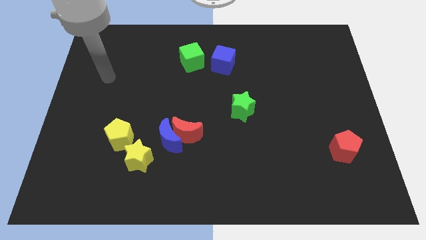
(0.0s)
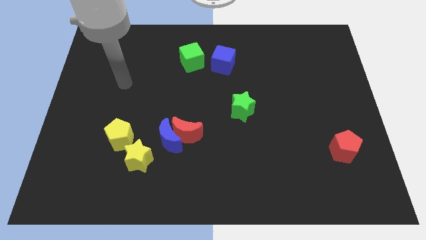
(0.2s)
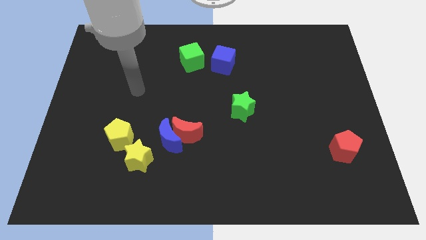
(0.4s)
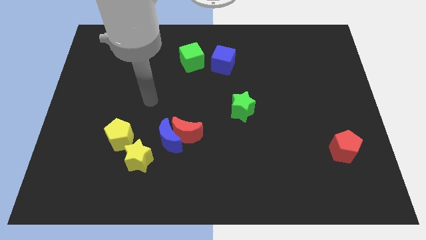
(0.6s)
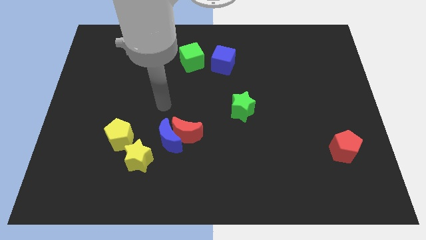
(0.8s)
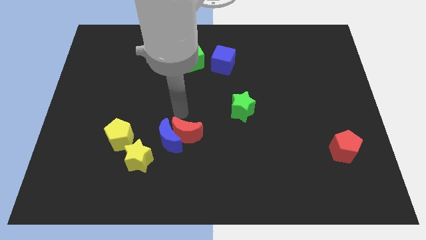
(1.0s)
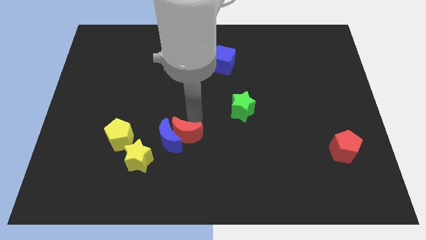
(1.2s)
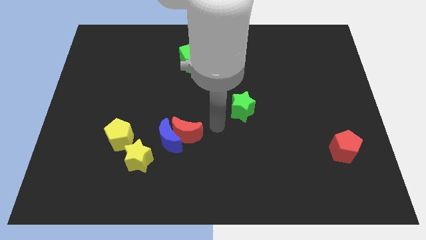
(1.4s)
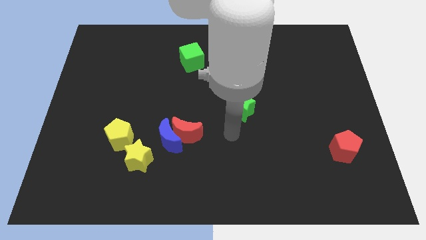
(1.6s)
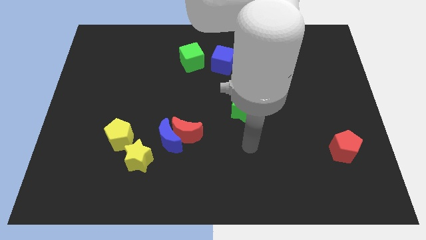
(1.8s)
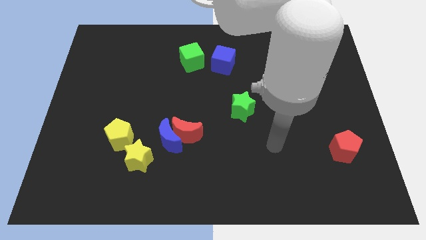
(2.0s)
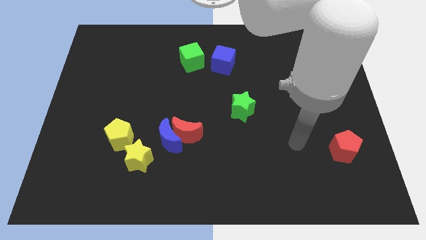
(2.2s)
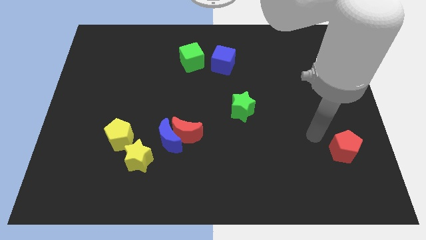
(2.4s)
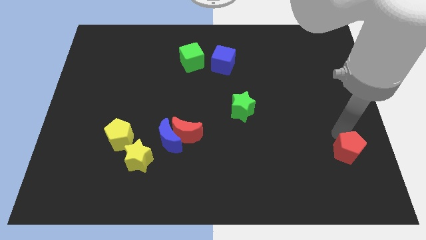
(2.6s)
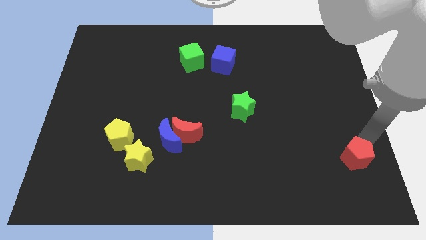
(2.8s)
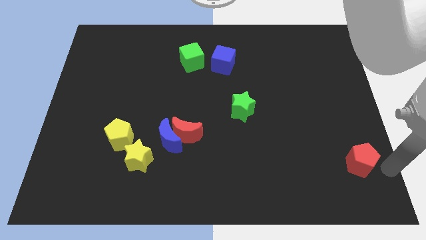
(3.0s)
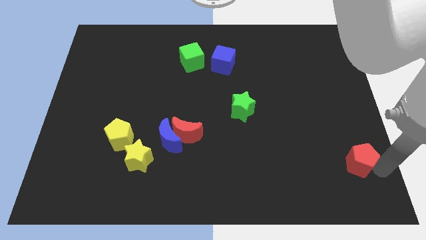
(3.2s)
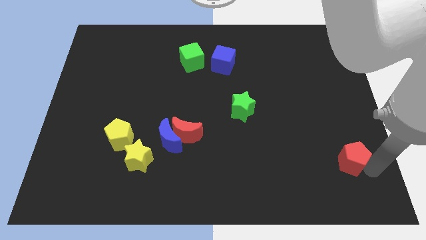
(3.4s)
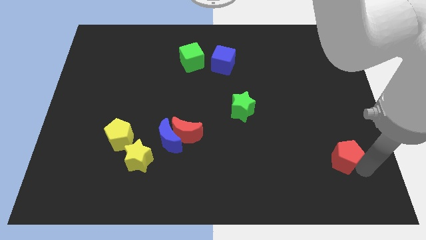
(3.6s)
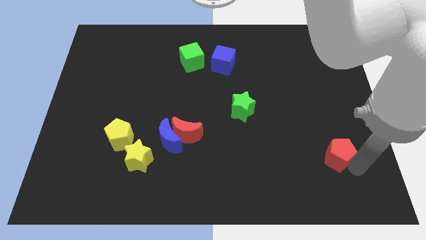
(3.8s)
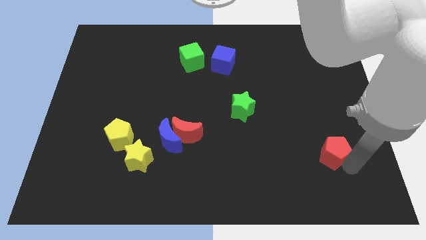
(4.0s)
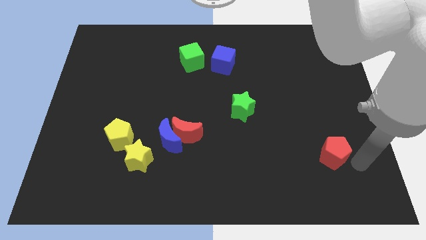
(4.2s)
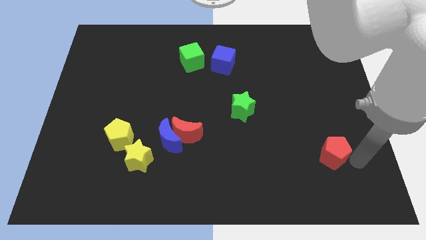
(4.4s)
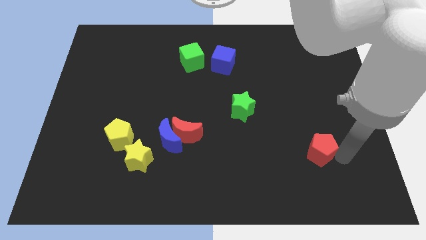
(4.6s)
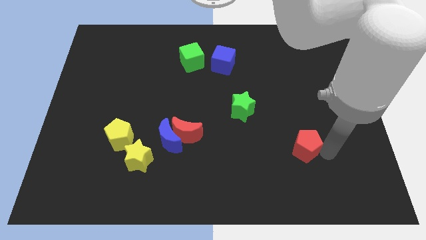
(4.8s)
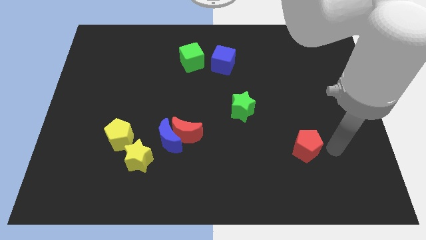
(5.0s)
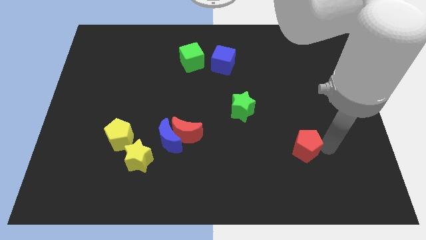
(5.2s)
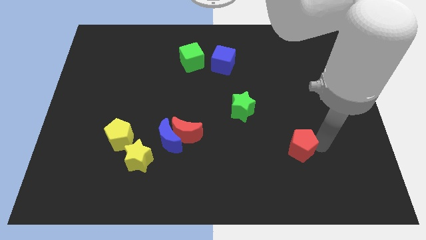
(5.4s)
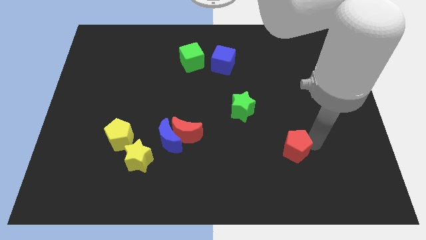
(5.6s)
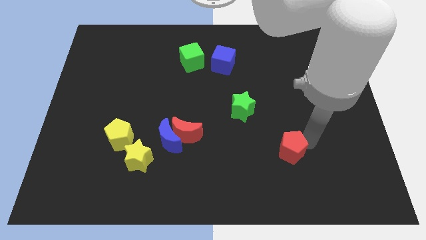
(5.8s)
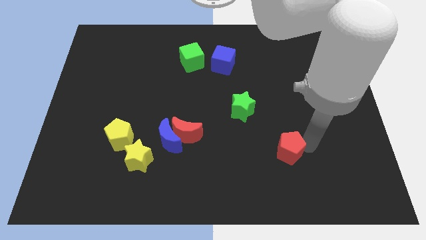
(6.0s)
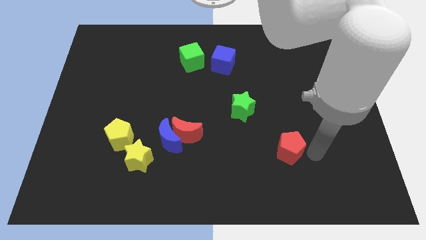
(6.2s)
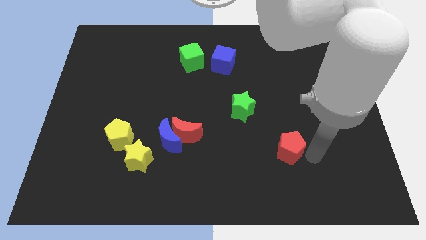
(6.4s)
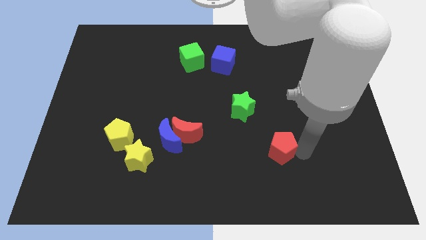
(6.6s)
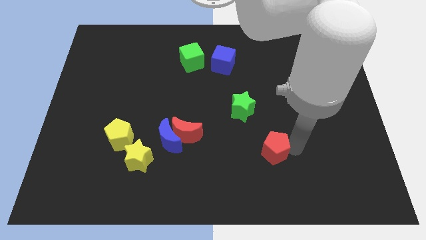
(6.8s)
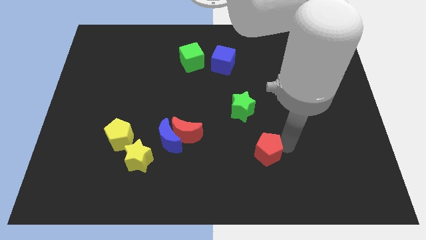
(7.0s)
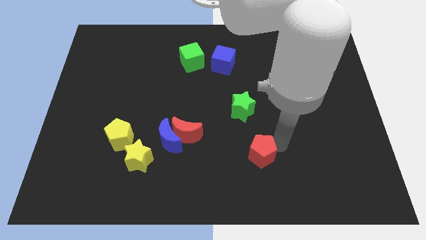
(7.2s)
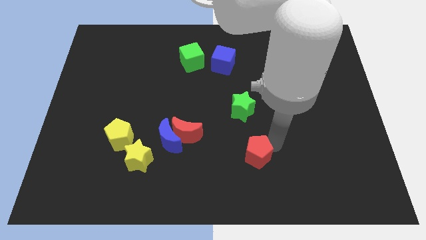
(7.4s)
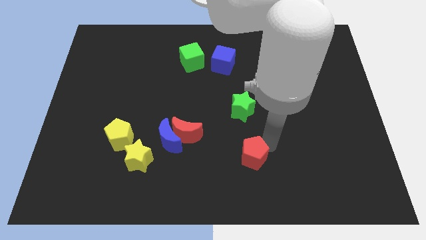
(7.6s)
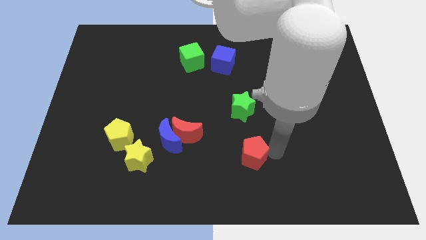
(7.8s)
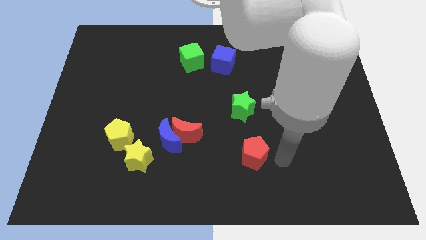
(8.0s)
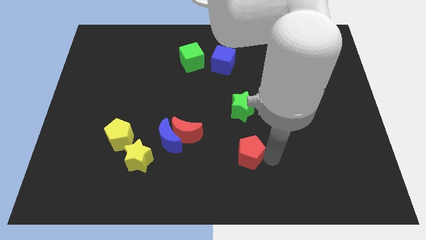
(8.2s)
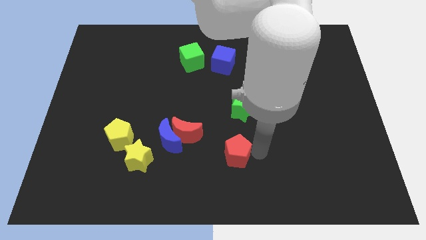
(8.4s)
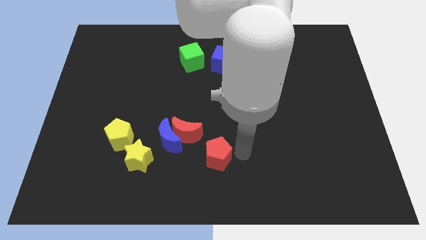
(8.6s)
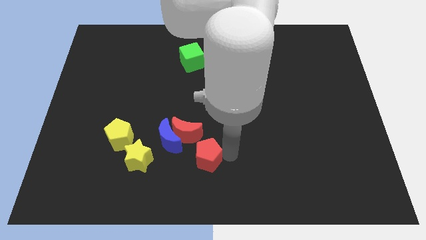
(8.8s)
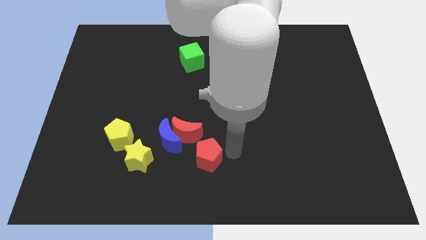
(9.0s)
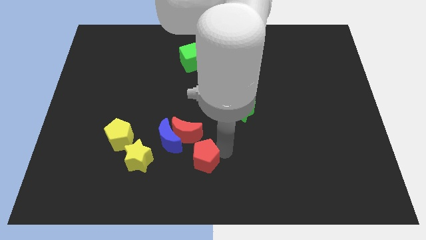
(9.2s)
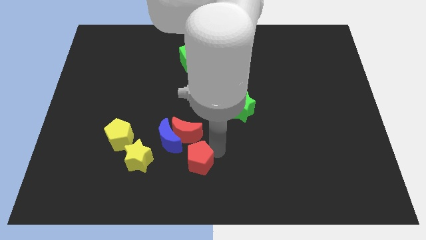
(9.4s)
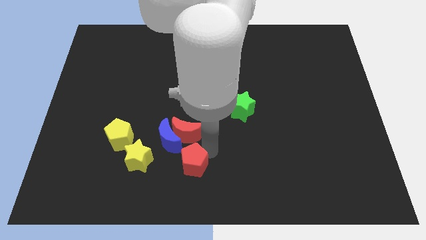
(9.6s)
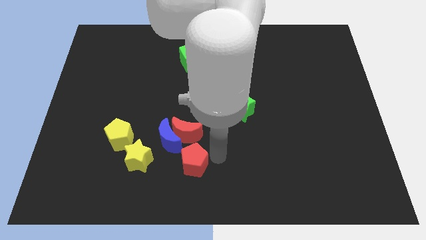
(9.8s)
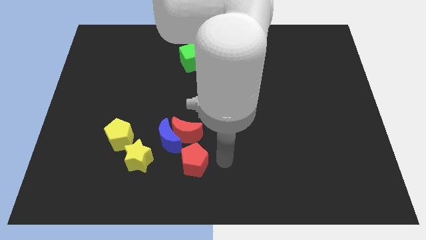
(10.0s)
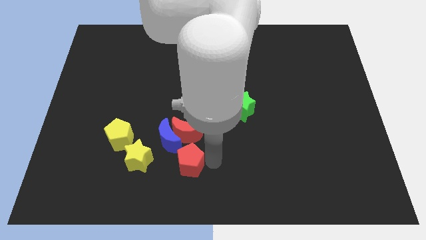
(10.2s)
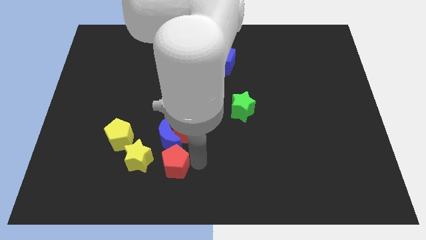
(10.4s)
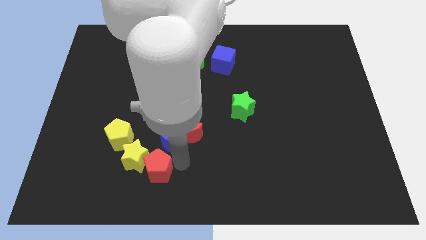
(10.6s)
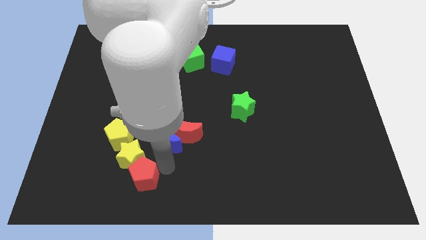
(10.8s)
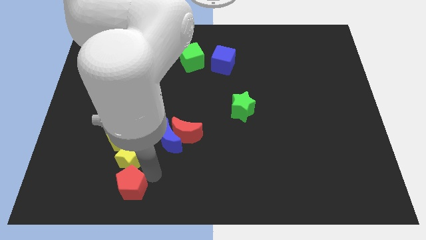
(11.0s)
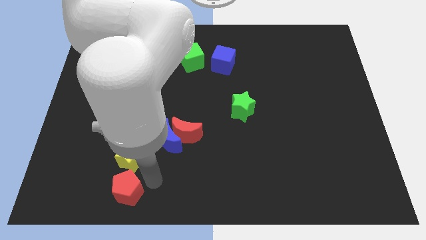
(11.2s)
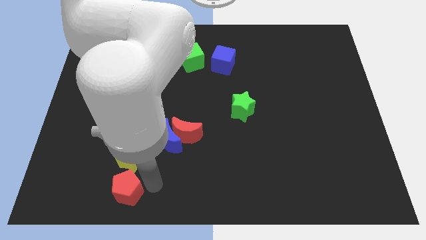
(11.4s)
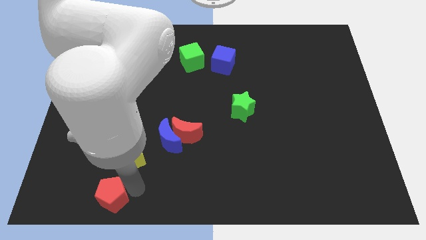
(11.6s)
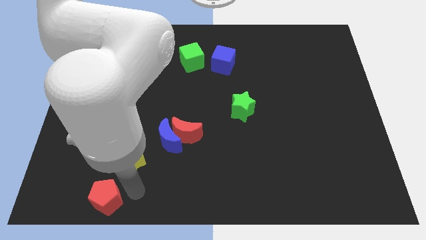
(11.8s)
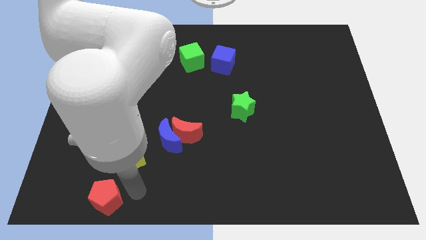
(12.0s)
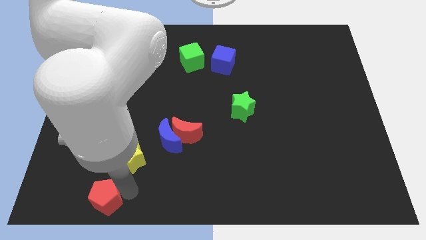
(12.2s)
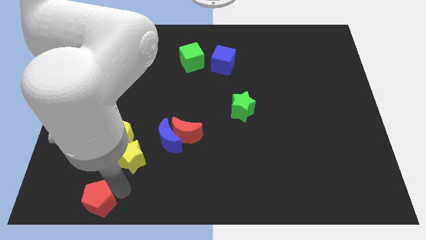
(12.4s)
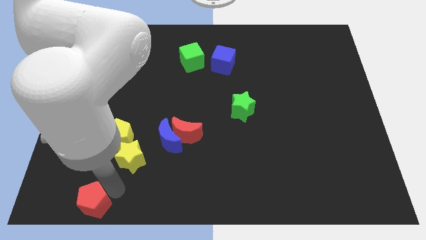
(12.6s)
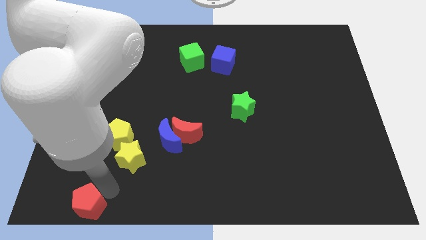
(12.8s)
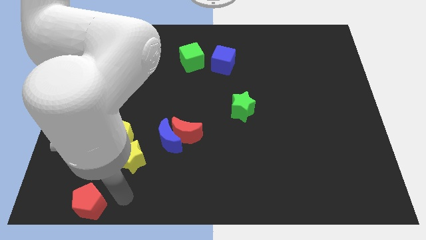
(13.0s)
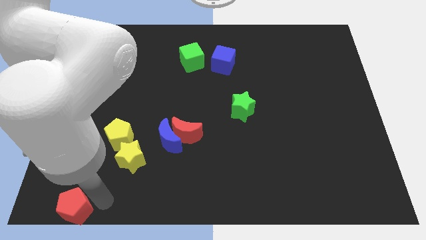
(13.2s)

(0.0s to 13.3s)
push the red pentagon to the bottom left corner
